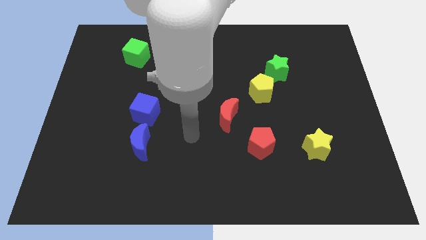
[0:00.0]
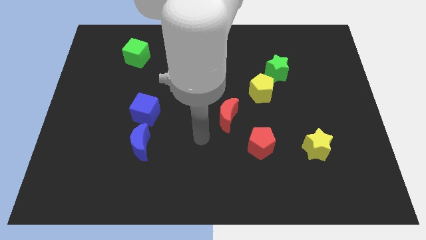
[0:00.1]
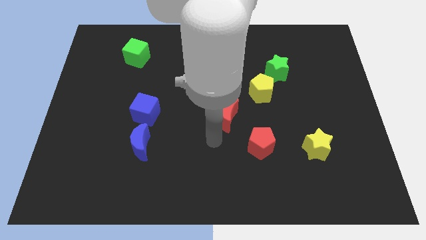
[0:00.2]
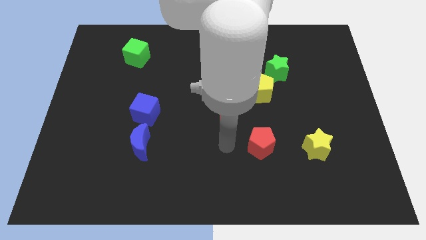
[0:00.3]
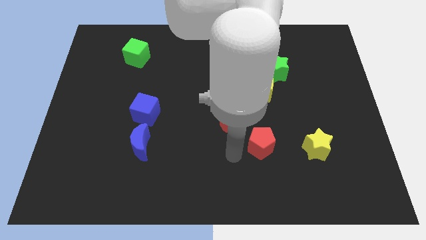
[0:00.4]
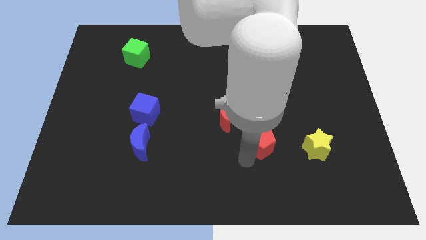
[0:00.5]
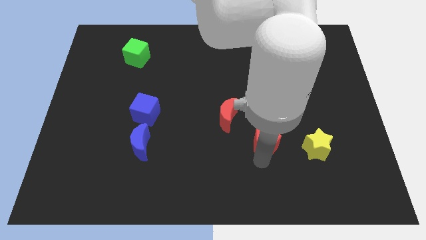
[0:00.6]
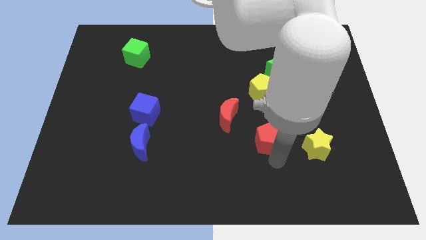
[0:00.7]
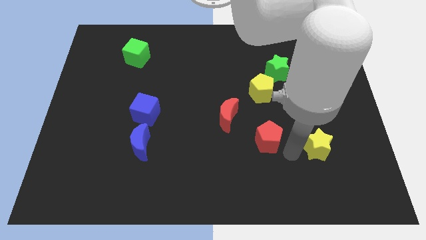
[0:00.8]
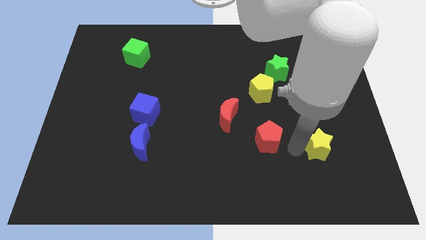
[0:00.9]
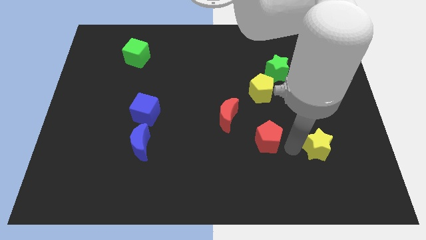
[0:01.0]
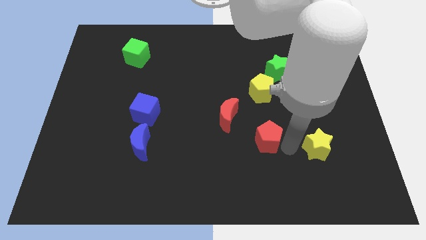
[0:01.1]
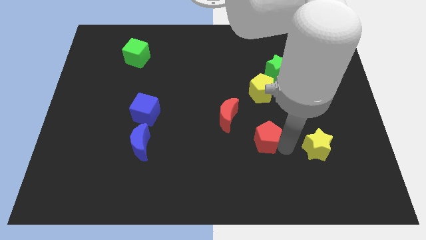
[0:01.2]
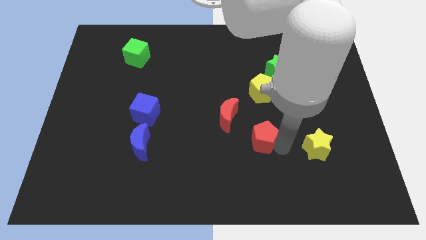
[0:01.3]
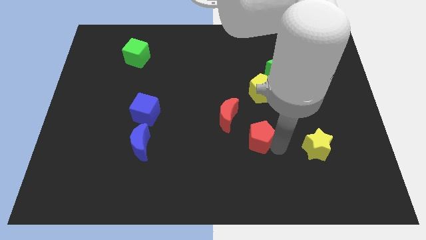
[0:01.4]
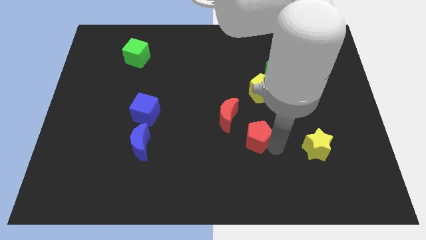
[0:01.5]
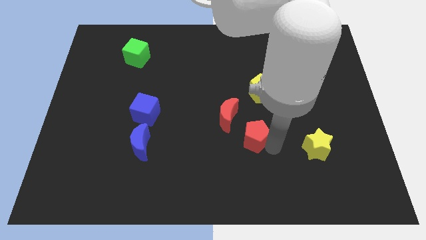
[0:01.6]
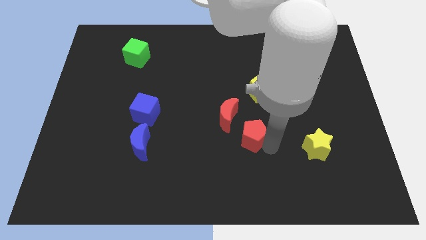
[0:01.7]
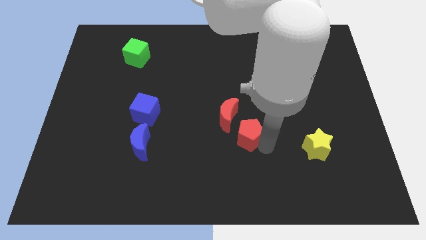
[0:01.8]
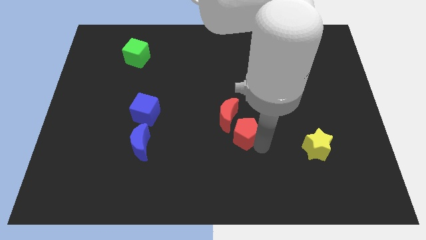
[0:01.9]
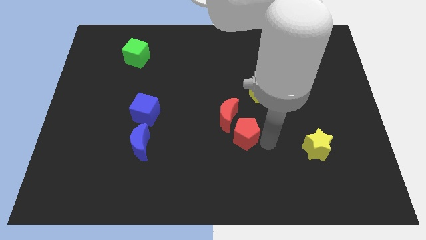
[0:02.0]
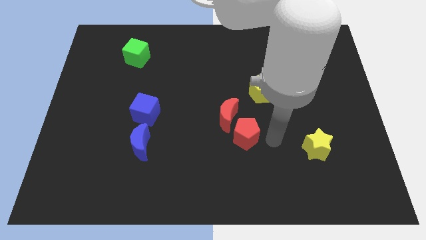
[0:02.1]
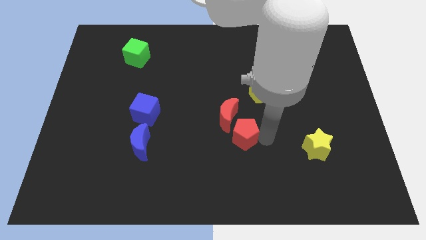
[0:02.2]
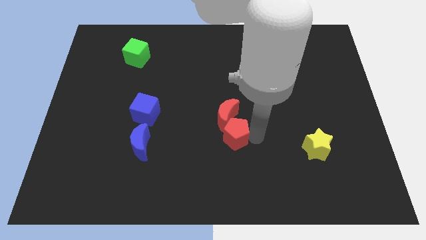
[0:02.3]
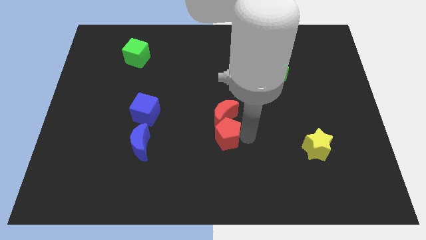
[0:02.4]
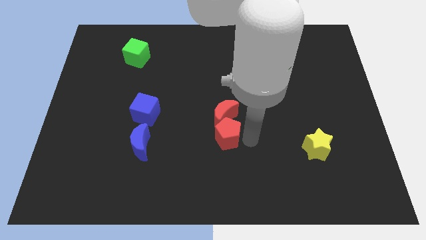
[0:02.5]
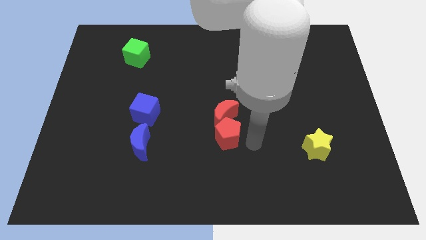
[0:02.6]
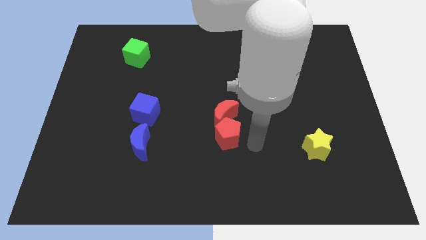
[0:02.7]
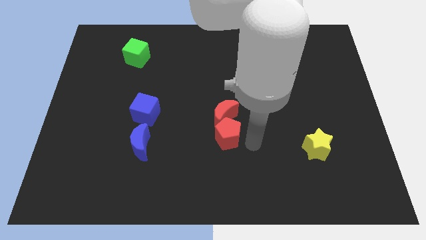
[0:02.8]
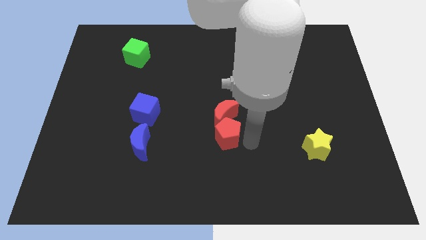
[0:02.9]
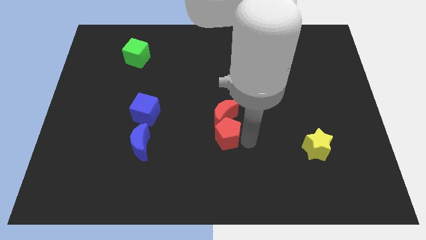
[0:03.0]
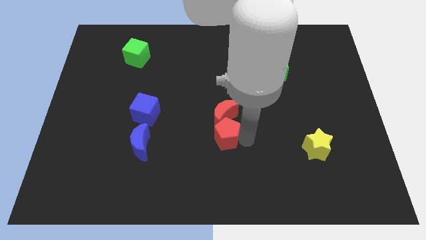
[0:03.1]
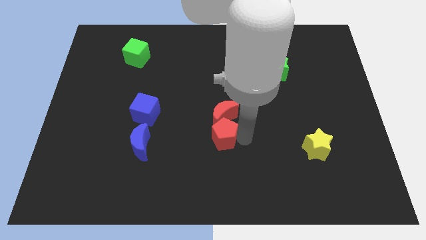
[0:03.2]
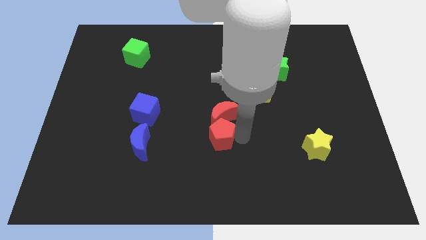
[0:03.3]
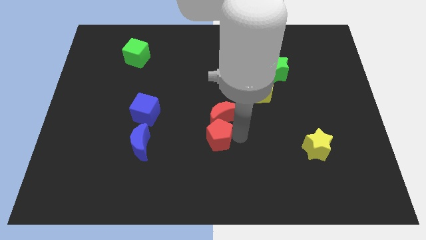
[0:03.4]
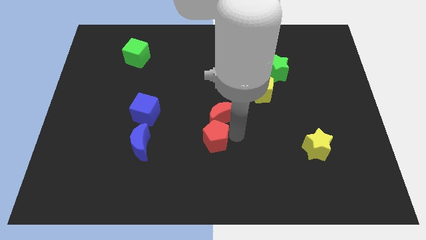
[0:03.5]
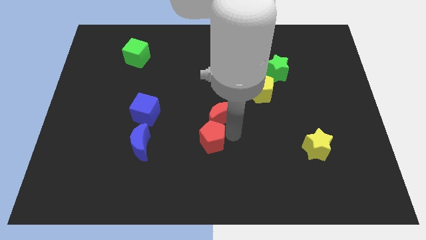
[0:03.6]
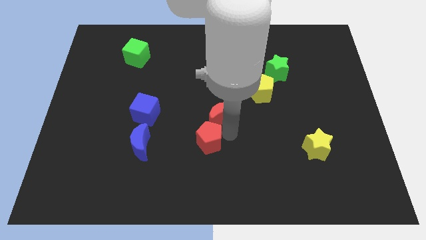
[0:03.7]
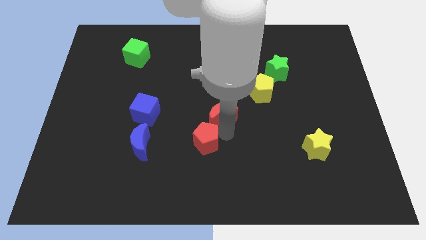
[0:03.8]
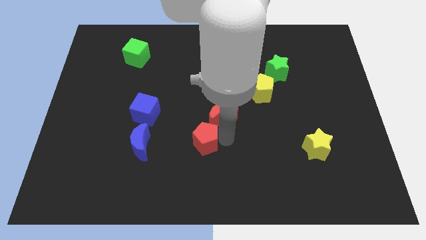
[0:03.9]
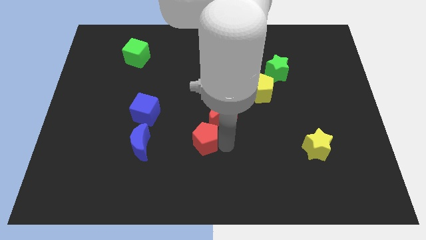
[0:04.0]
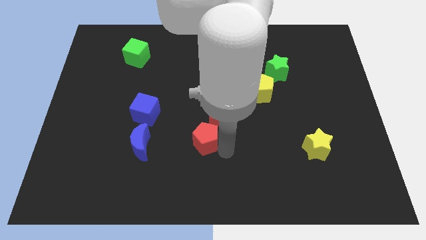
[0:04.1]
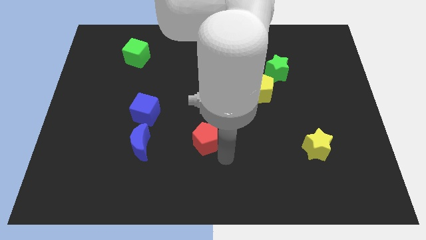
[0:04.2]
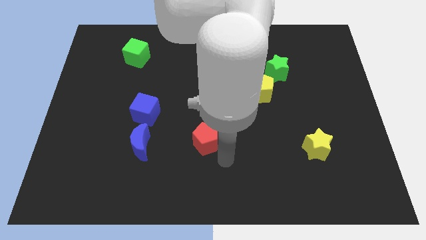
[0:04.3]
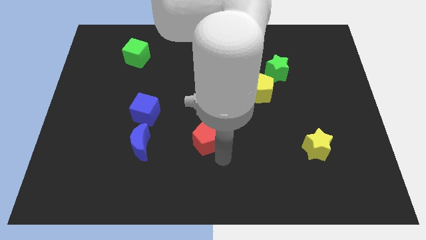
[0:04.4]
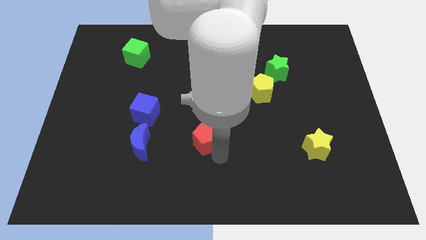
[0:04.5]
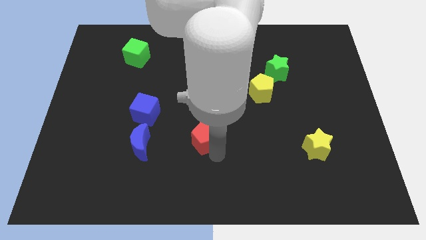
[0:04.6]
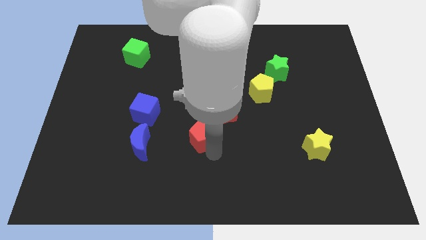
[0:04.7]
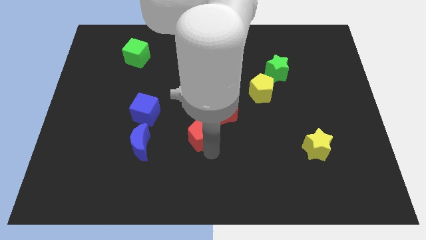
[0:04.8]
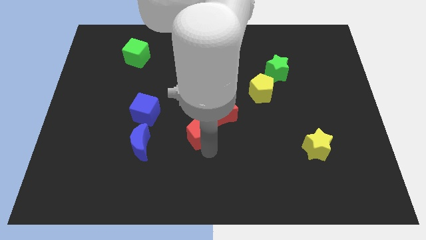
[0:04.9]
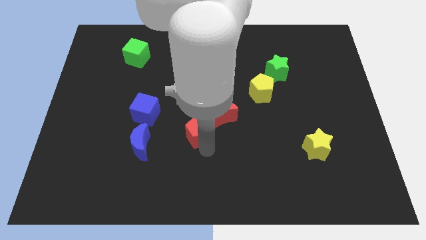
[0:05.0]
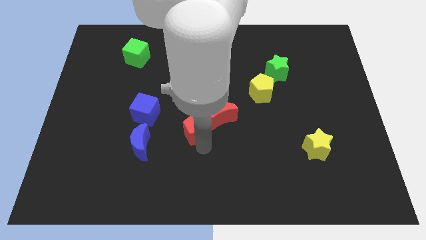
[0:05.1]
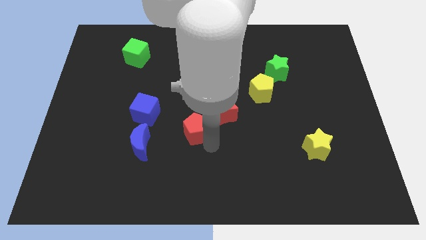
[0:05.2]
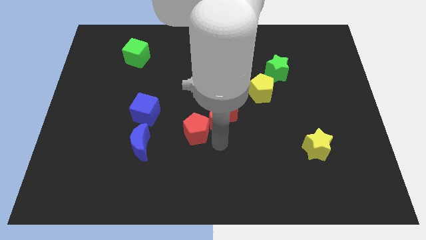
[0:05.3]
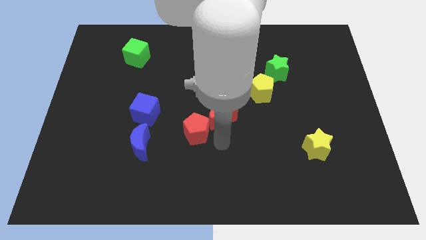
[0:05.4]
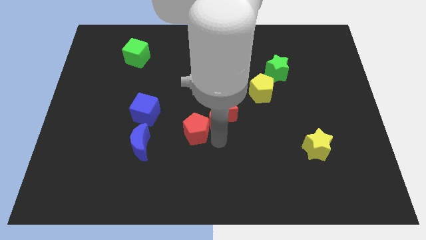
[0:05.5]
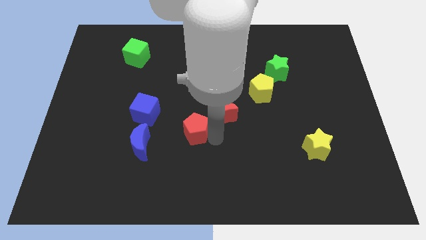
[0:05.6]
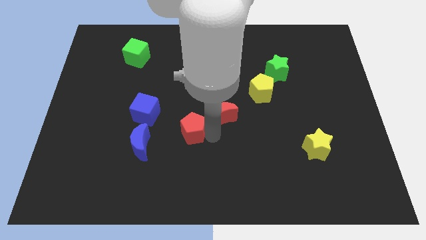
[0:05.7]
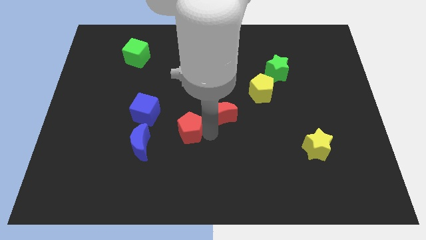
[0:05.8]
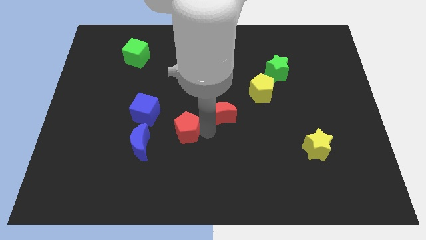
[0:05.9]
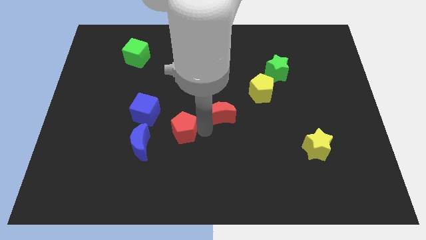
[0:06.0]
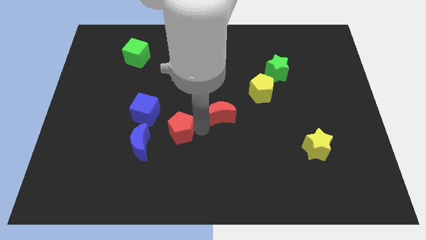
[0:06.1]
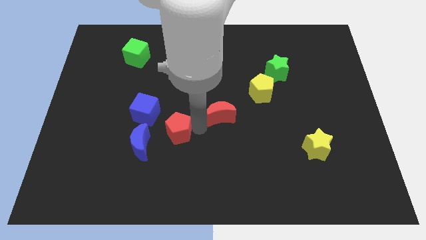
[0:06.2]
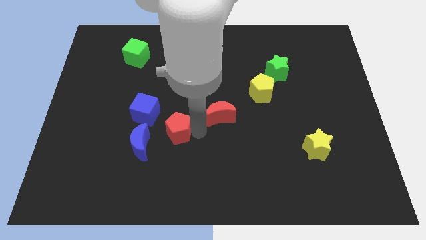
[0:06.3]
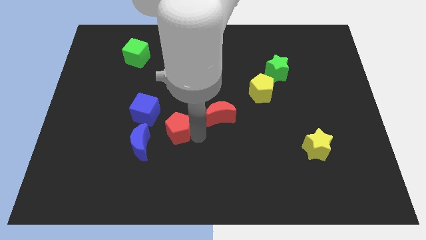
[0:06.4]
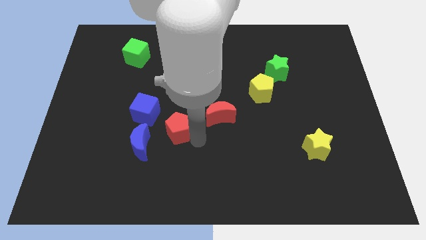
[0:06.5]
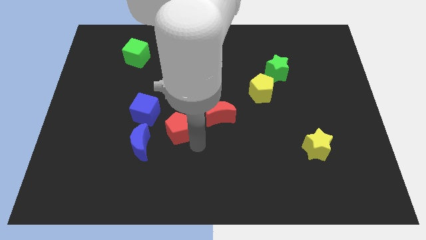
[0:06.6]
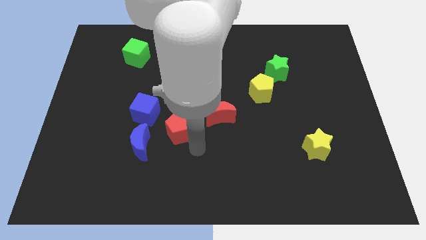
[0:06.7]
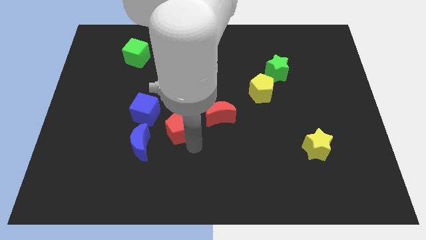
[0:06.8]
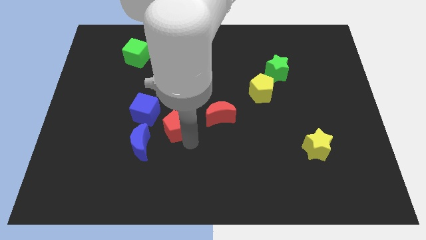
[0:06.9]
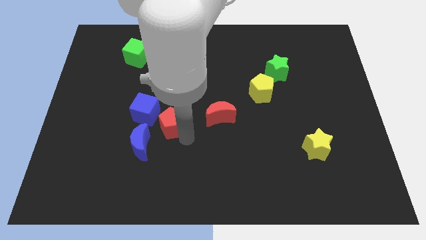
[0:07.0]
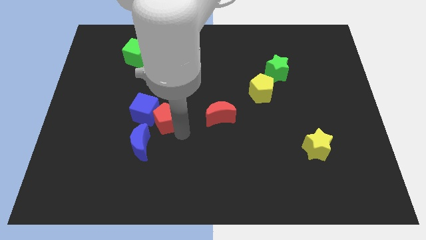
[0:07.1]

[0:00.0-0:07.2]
push the red pentagon next to the blue cube

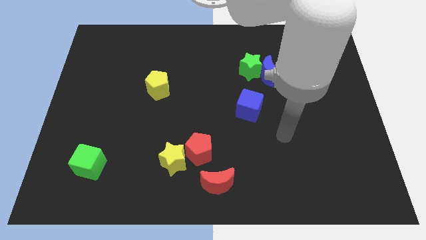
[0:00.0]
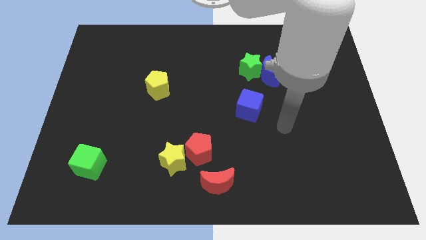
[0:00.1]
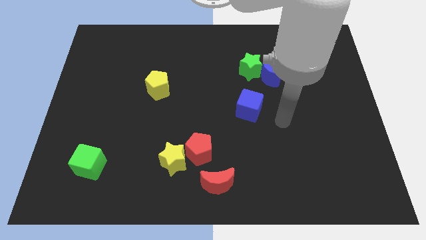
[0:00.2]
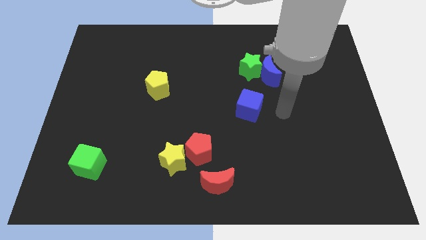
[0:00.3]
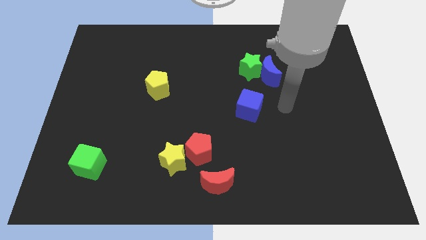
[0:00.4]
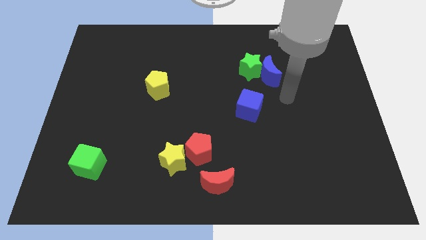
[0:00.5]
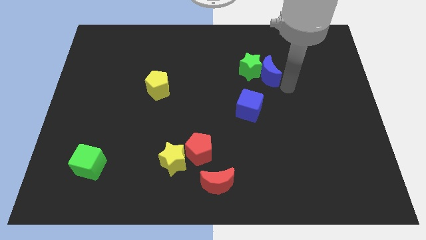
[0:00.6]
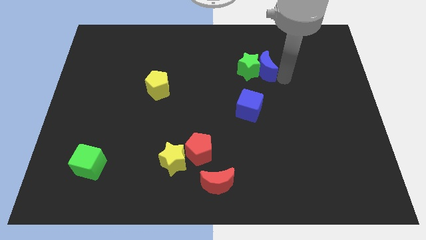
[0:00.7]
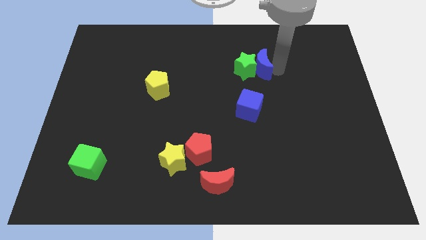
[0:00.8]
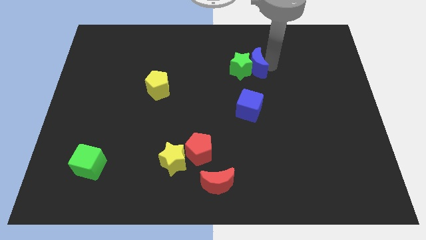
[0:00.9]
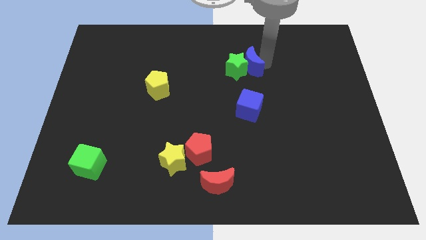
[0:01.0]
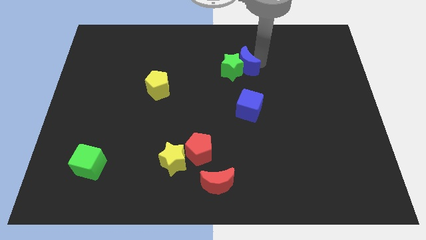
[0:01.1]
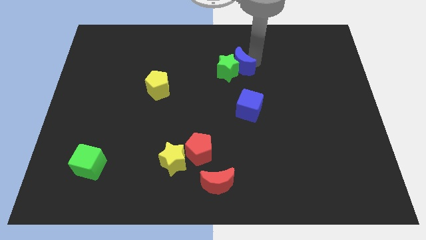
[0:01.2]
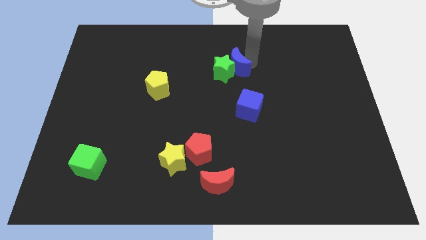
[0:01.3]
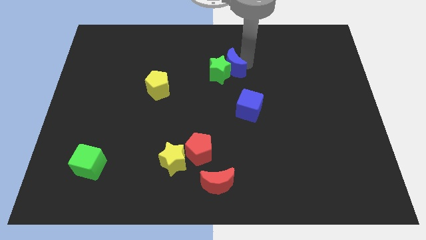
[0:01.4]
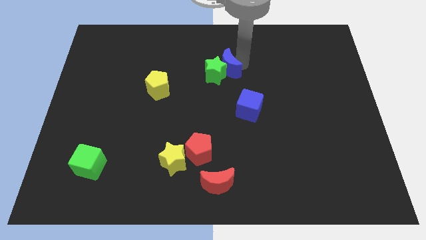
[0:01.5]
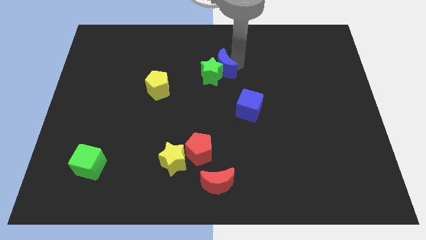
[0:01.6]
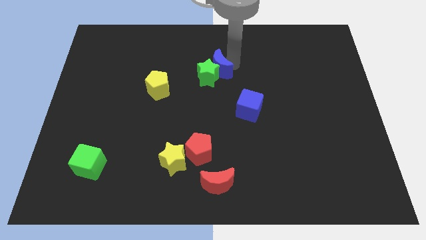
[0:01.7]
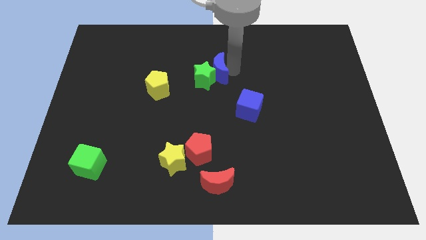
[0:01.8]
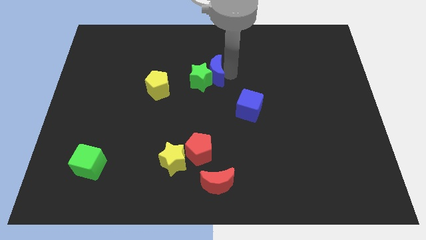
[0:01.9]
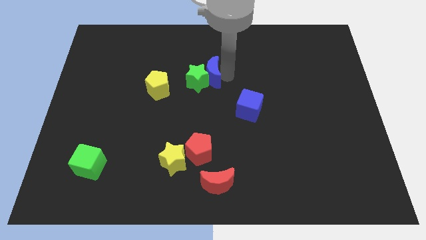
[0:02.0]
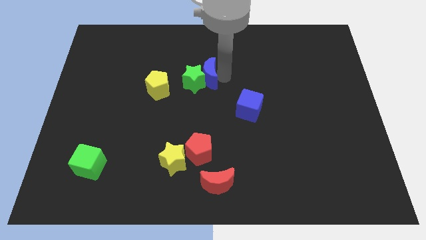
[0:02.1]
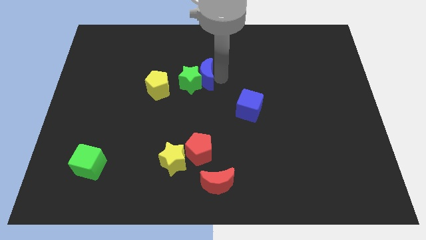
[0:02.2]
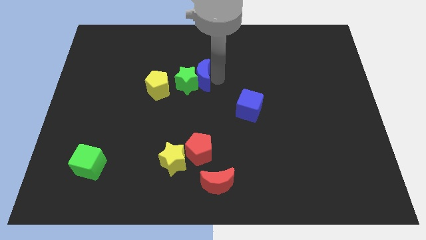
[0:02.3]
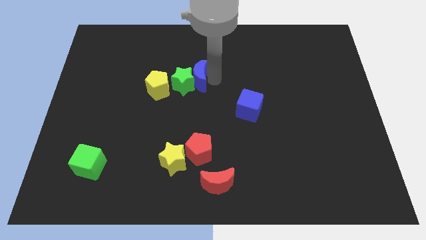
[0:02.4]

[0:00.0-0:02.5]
move the green star to the yellow pentagon
